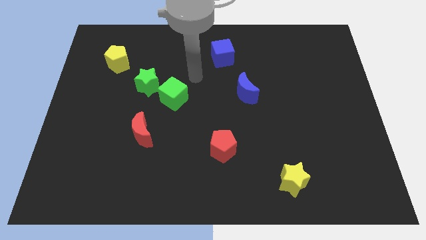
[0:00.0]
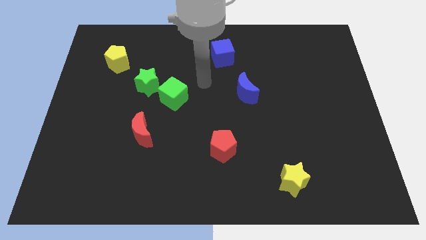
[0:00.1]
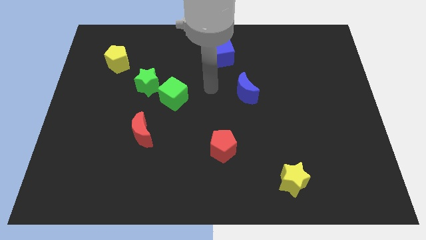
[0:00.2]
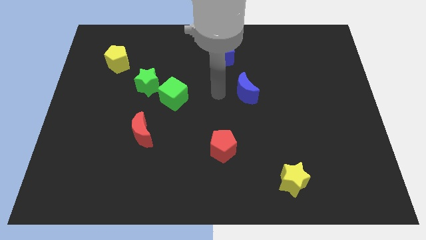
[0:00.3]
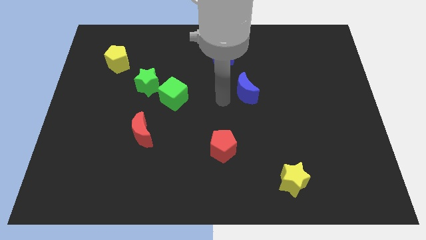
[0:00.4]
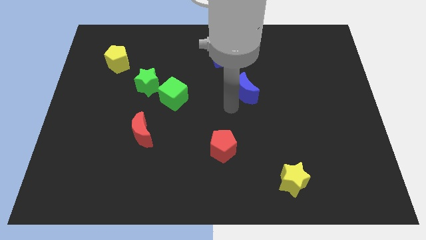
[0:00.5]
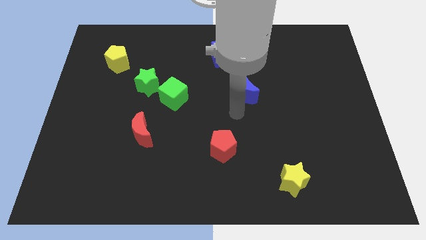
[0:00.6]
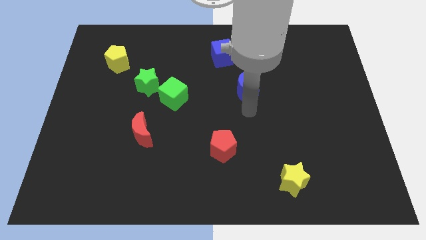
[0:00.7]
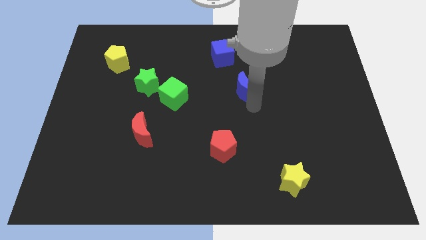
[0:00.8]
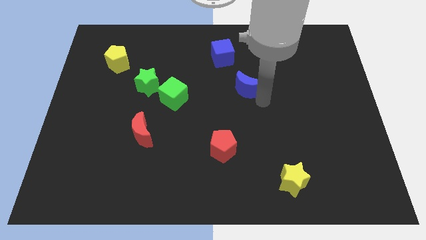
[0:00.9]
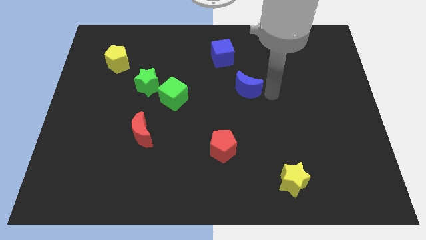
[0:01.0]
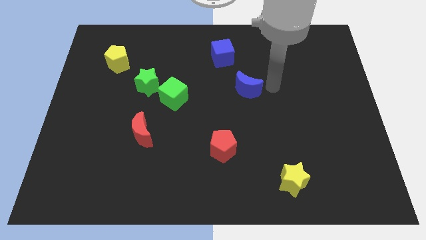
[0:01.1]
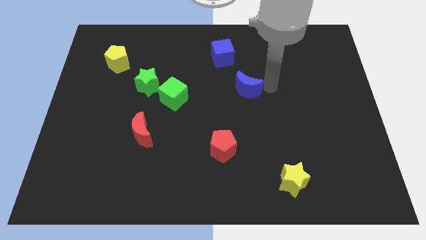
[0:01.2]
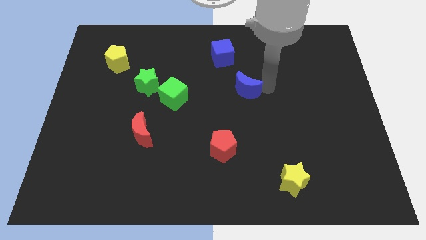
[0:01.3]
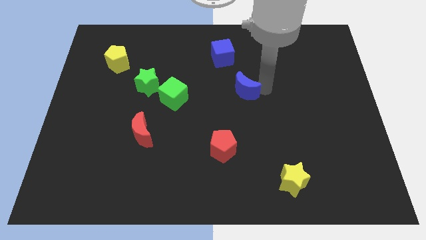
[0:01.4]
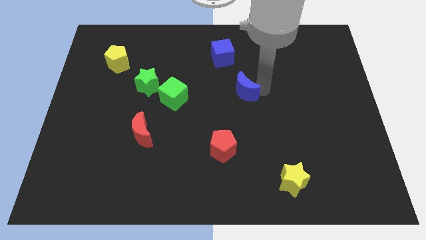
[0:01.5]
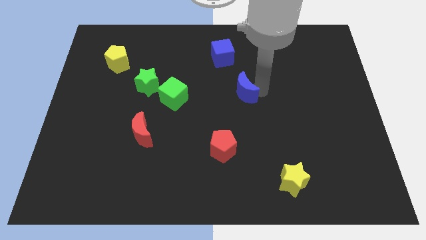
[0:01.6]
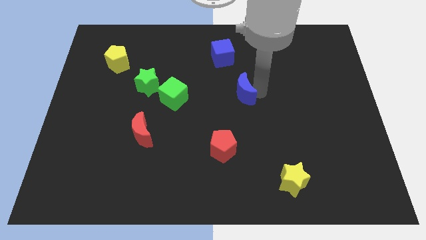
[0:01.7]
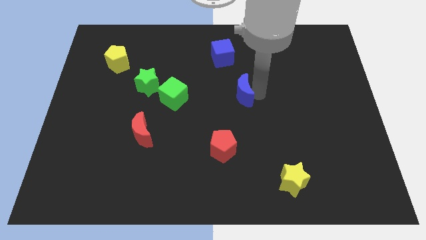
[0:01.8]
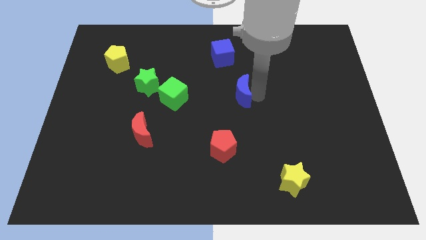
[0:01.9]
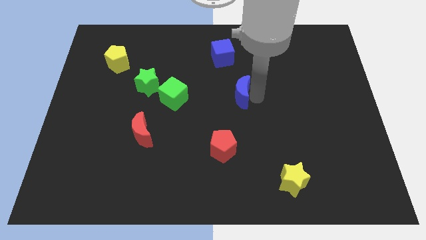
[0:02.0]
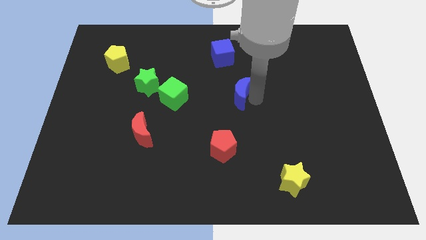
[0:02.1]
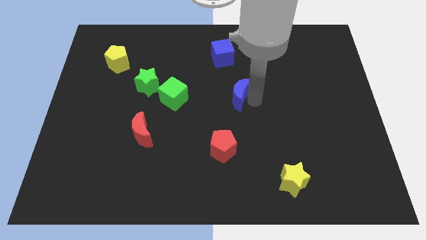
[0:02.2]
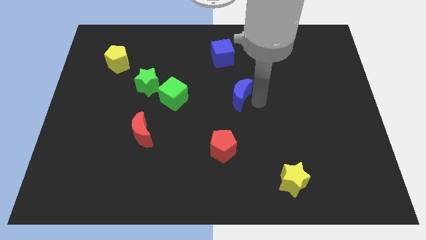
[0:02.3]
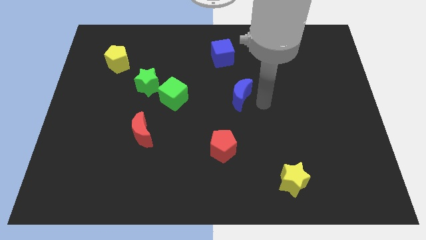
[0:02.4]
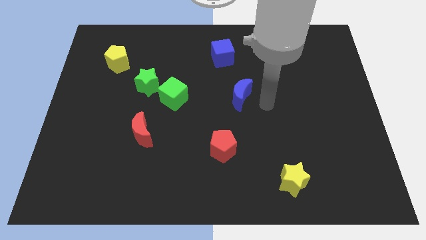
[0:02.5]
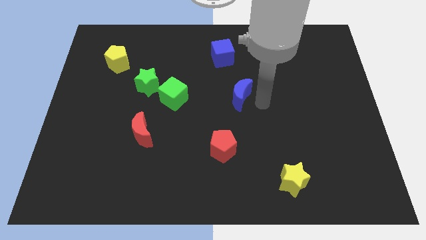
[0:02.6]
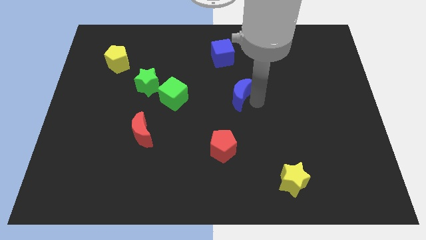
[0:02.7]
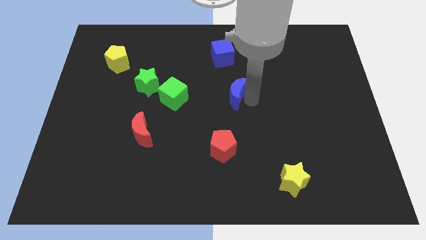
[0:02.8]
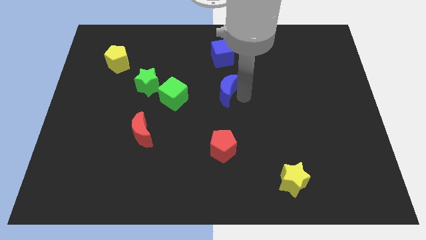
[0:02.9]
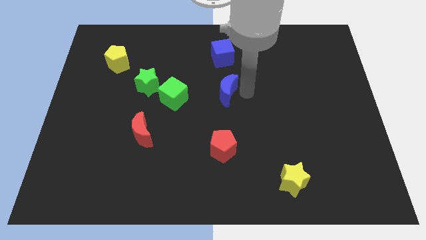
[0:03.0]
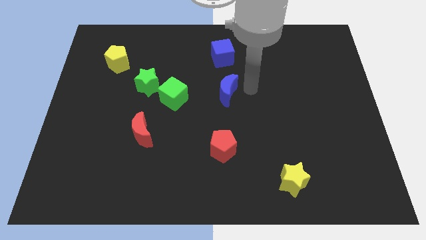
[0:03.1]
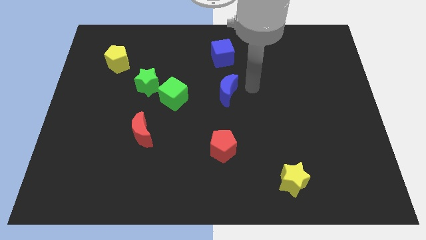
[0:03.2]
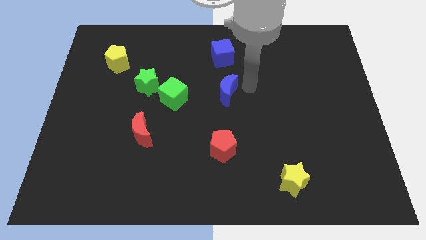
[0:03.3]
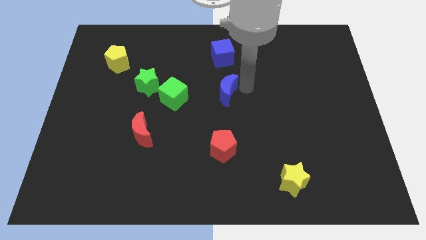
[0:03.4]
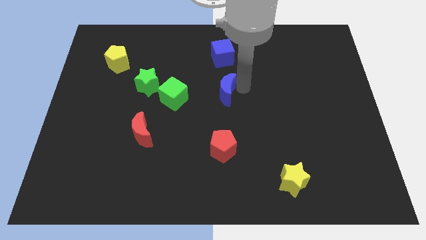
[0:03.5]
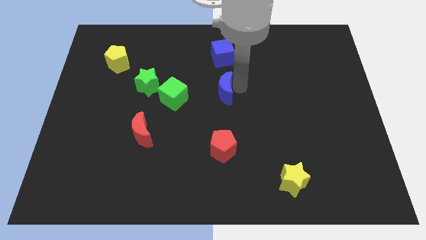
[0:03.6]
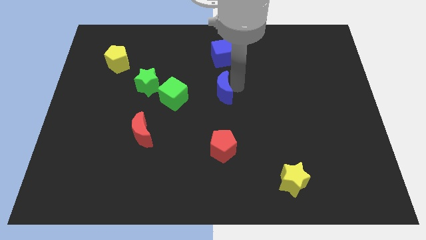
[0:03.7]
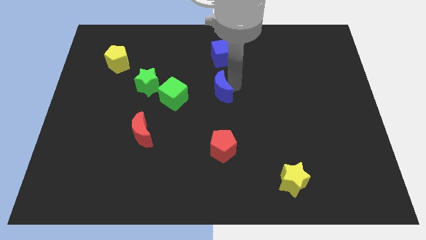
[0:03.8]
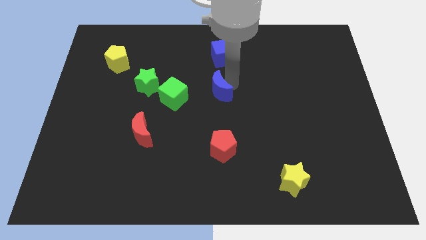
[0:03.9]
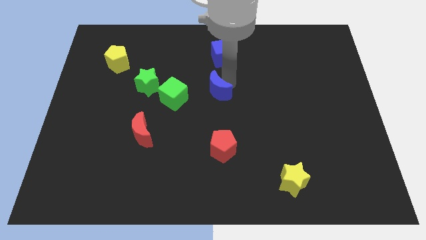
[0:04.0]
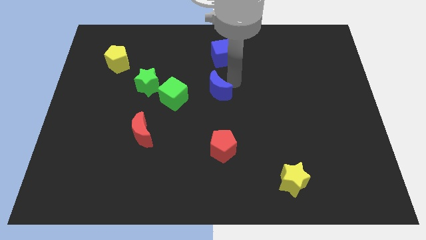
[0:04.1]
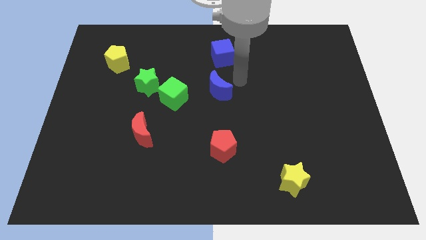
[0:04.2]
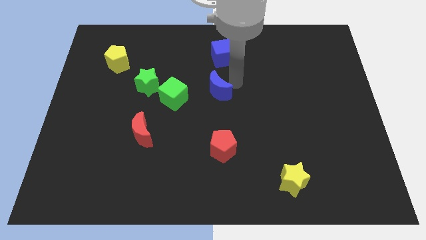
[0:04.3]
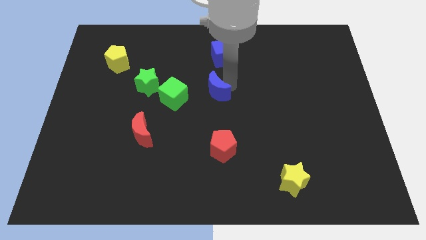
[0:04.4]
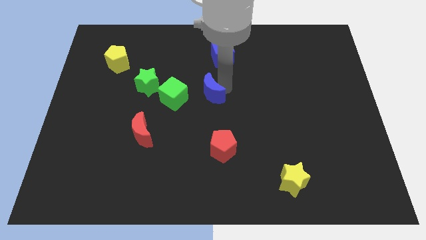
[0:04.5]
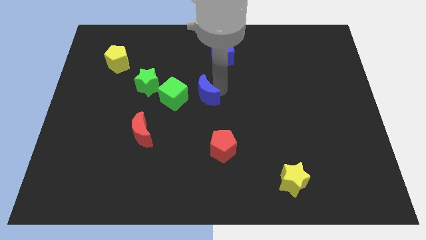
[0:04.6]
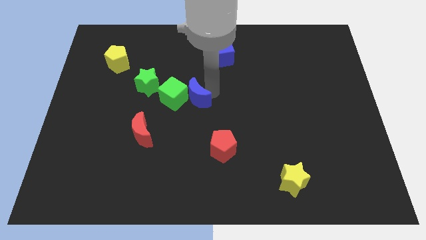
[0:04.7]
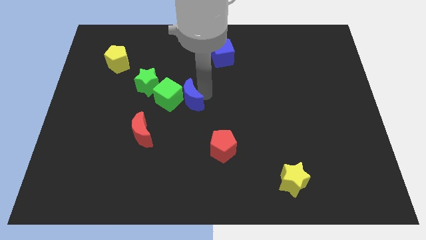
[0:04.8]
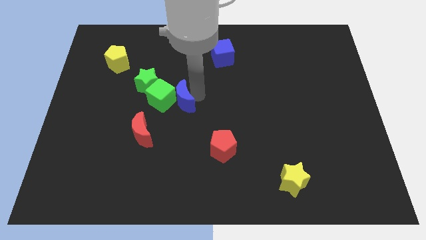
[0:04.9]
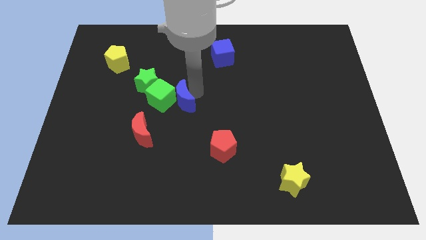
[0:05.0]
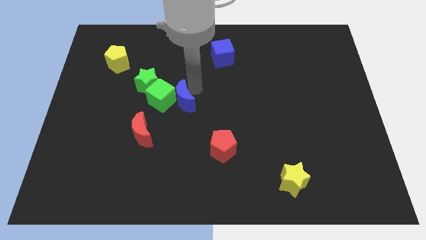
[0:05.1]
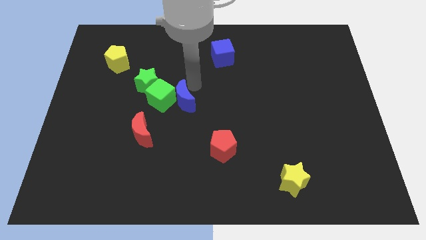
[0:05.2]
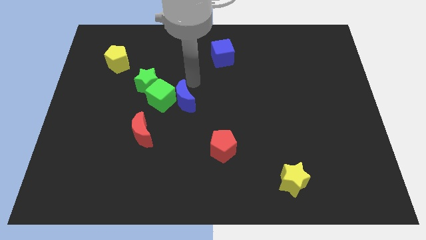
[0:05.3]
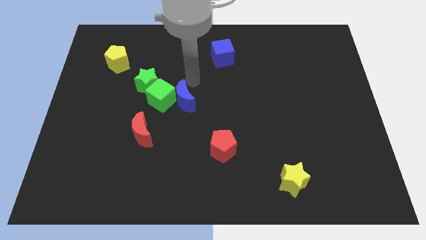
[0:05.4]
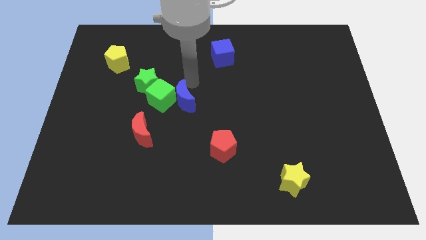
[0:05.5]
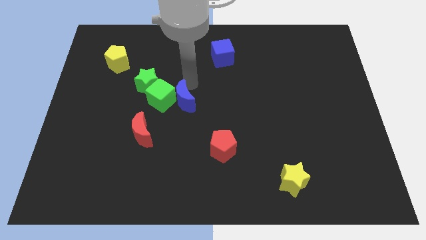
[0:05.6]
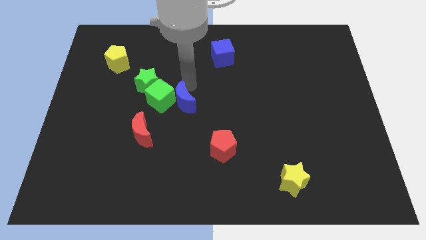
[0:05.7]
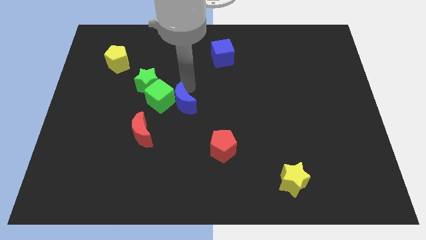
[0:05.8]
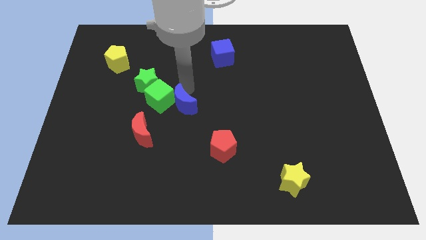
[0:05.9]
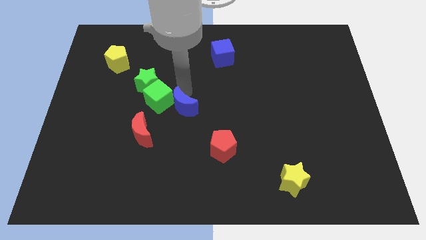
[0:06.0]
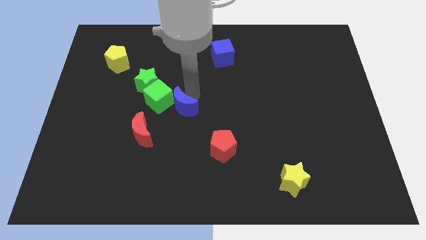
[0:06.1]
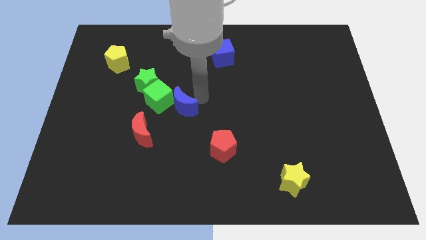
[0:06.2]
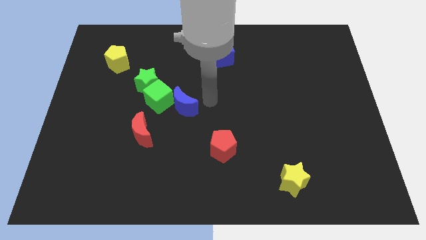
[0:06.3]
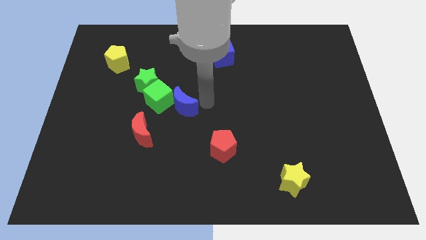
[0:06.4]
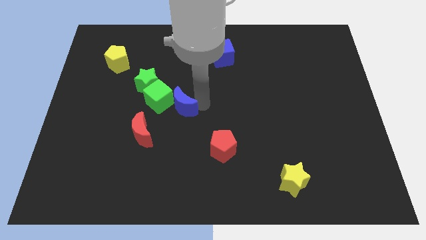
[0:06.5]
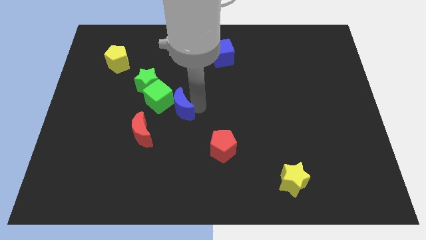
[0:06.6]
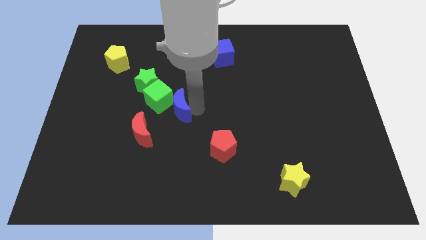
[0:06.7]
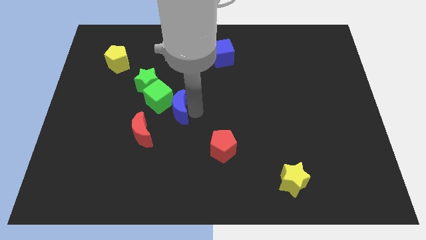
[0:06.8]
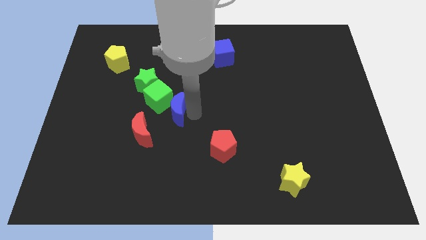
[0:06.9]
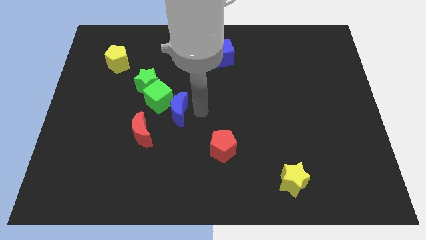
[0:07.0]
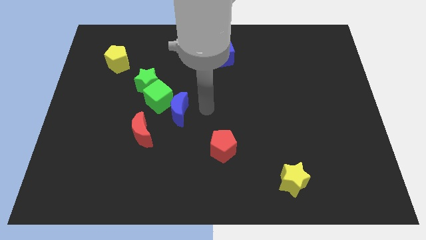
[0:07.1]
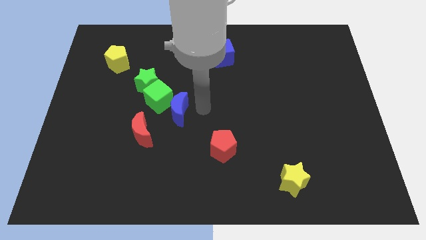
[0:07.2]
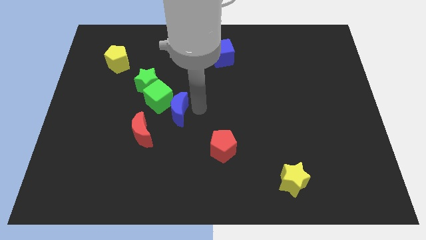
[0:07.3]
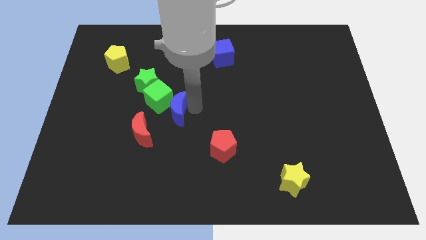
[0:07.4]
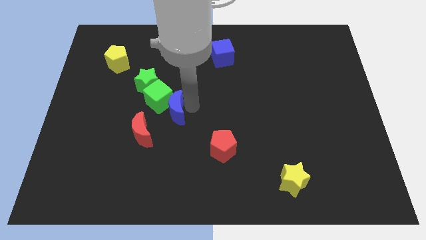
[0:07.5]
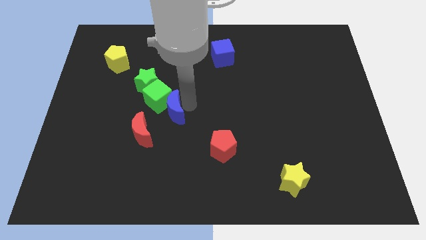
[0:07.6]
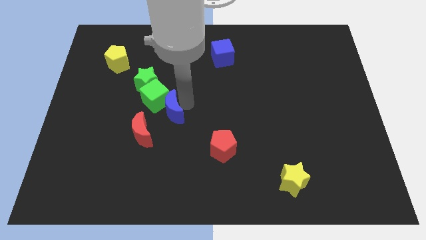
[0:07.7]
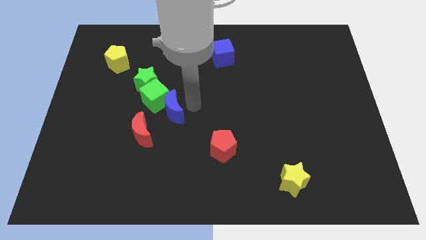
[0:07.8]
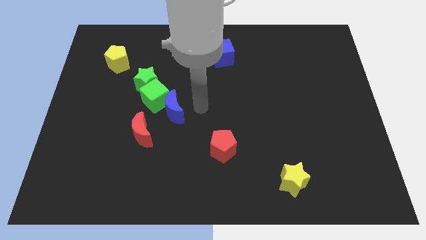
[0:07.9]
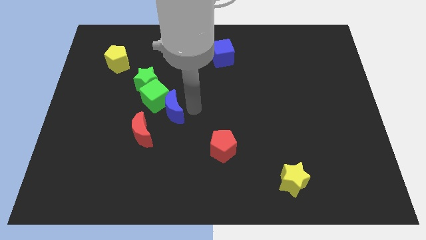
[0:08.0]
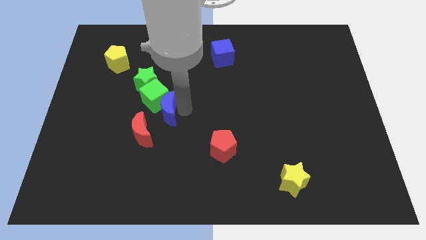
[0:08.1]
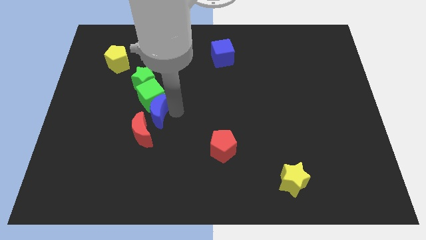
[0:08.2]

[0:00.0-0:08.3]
put the blue moon diagonally down and to the left of the green cube
